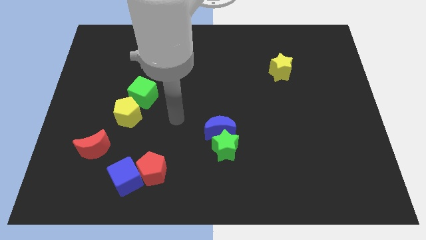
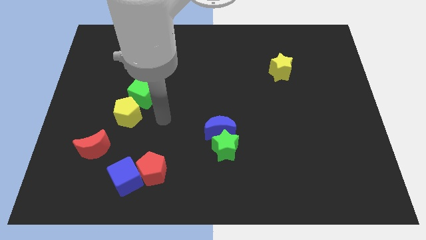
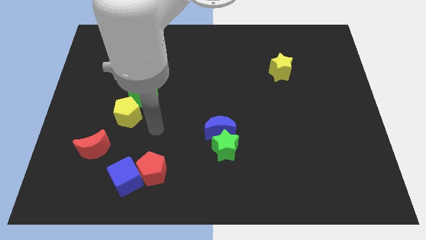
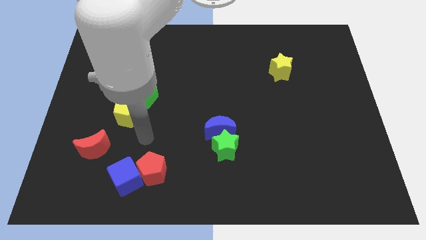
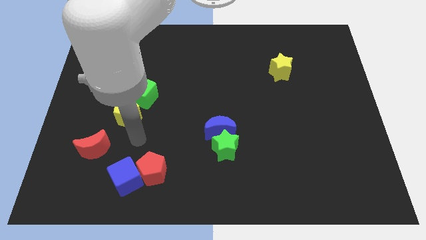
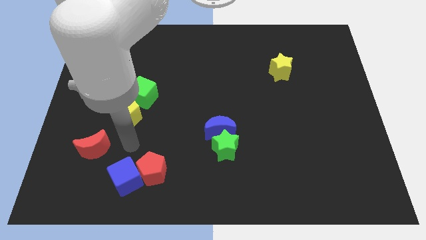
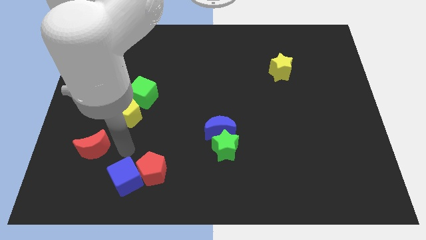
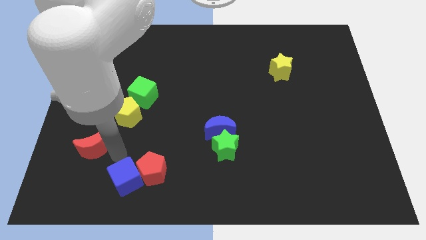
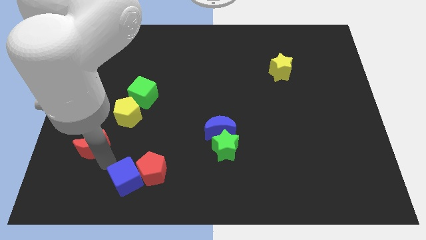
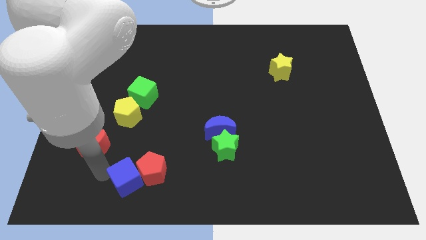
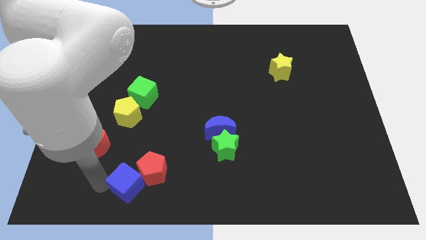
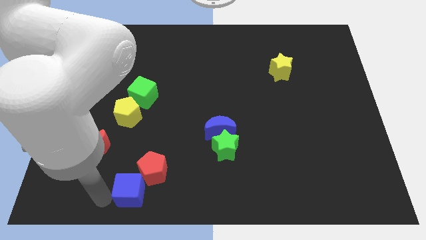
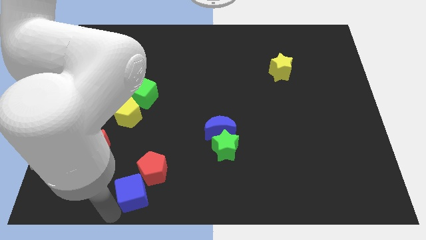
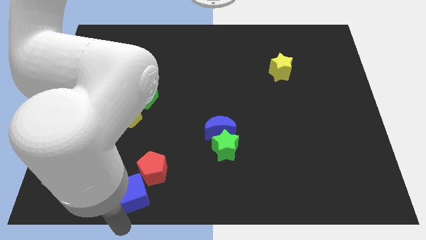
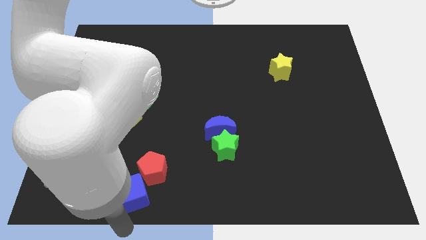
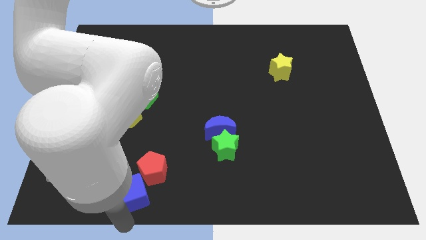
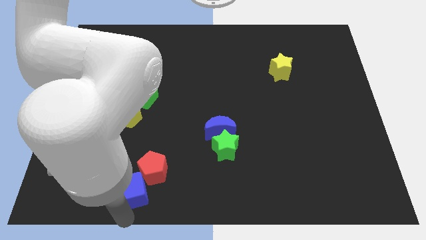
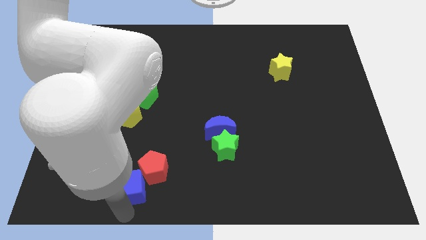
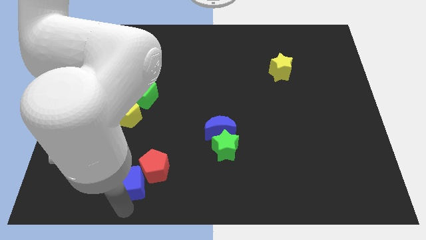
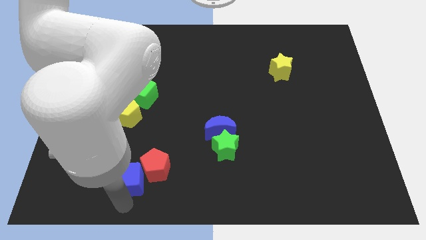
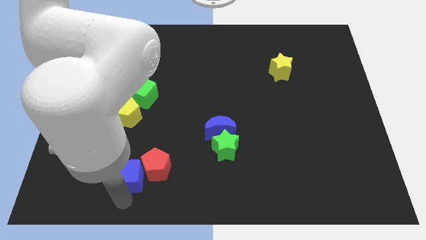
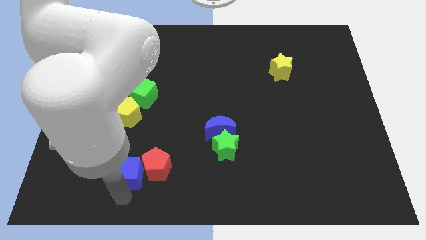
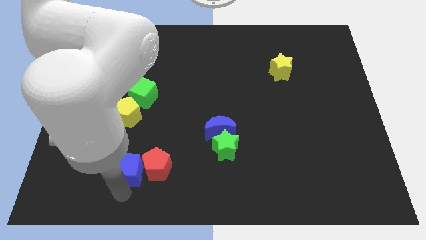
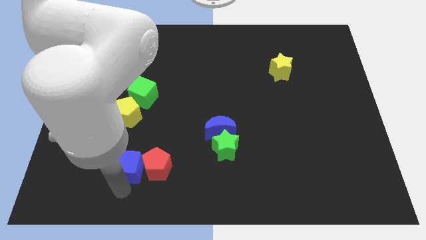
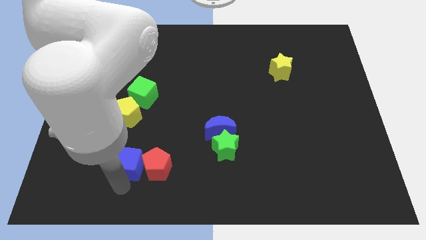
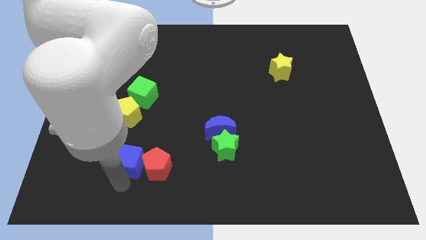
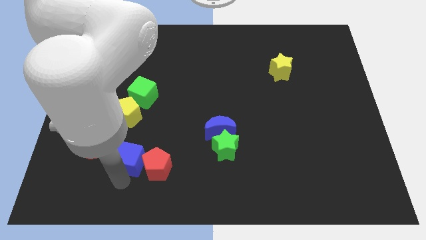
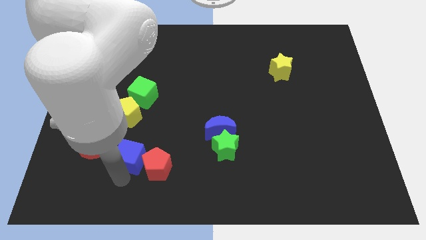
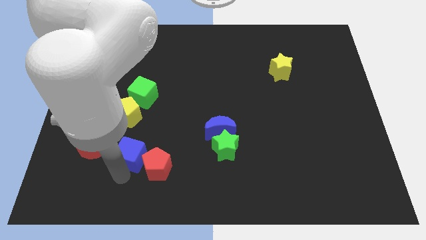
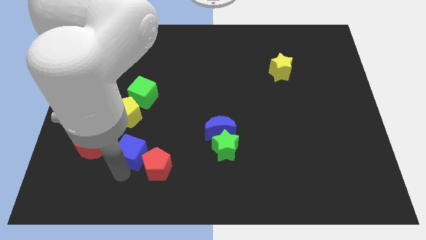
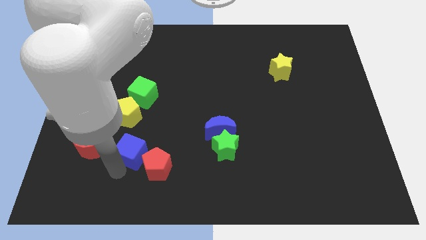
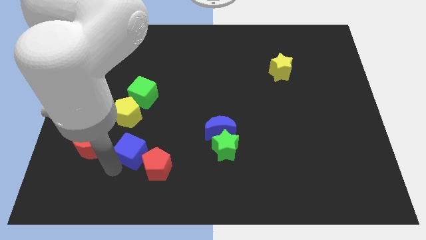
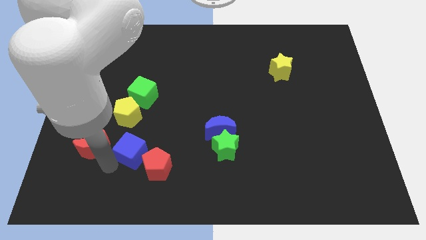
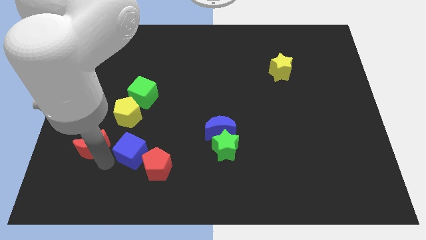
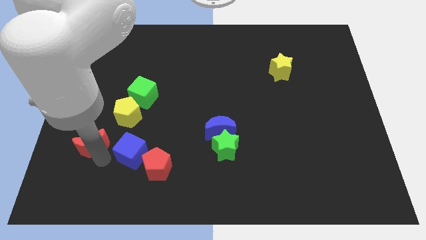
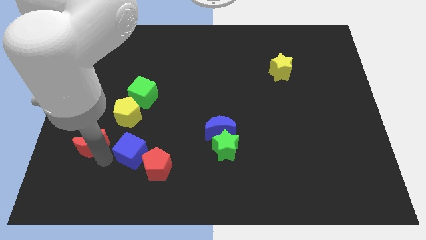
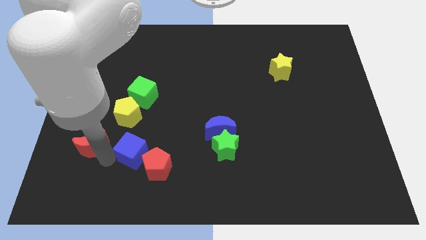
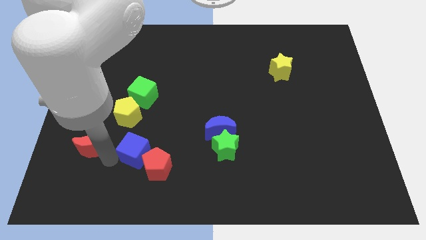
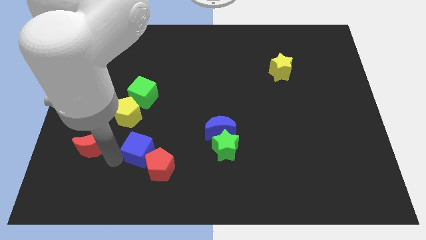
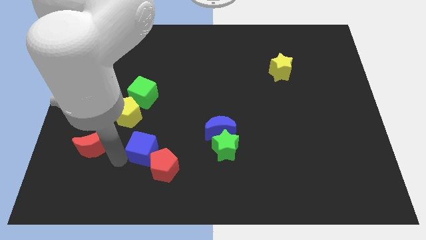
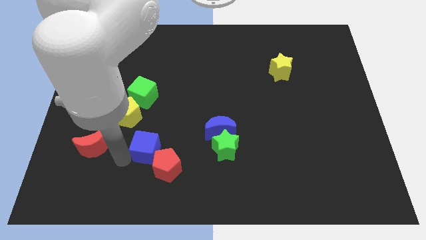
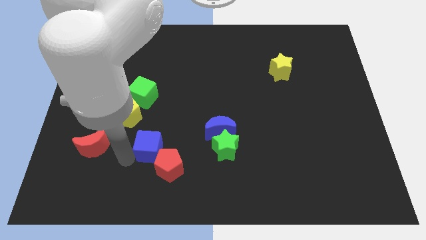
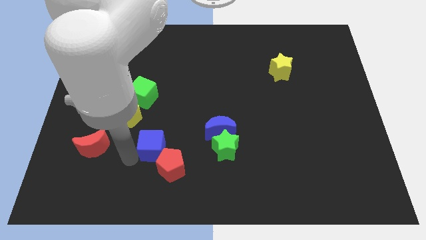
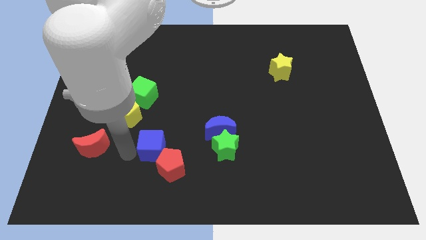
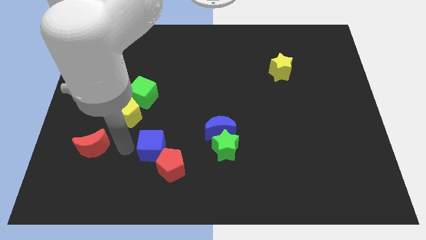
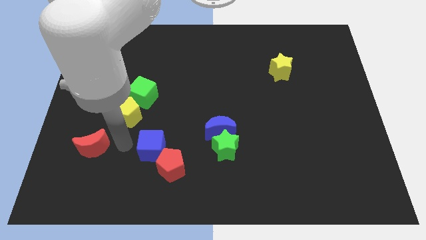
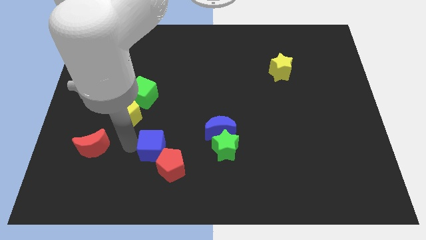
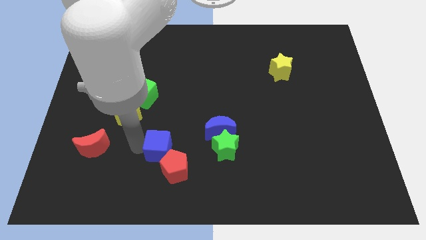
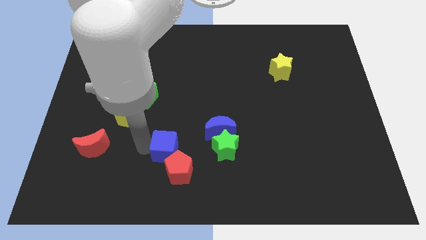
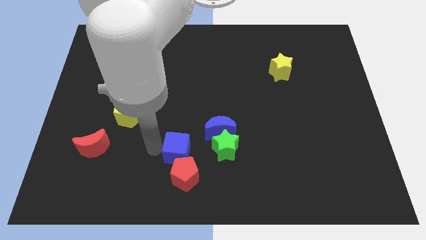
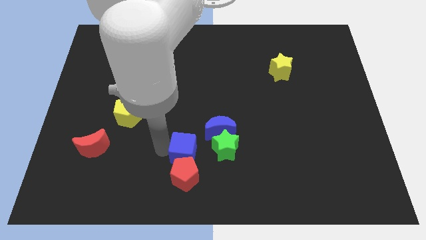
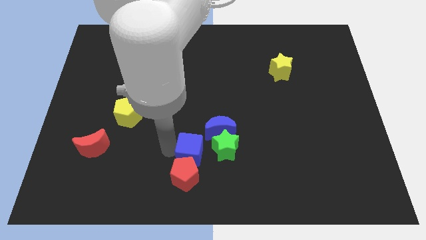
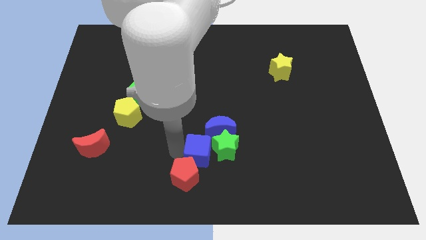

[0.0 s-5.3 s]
put the blue cube next to the green star

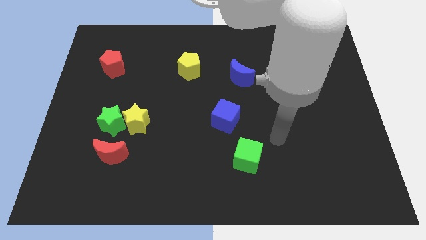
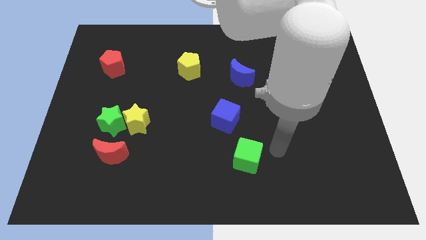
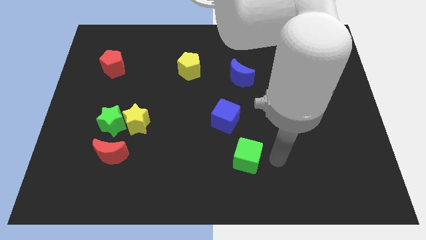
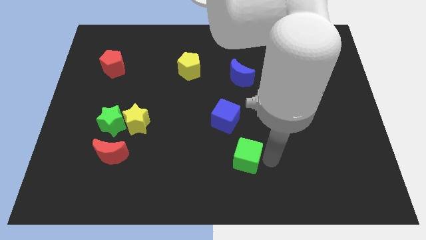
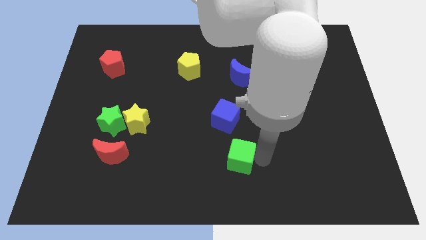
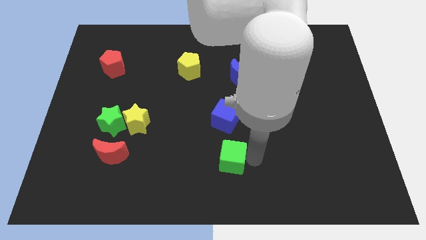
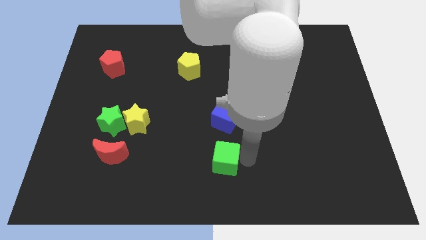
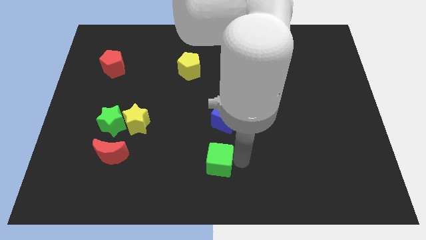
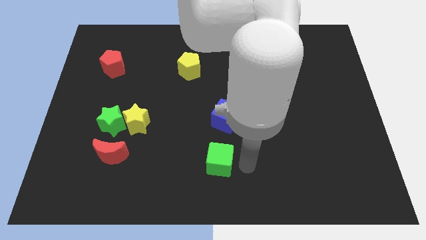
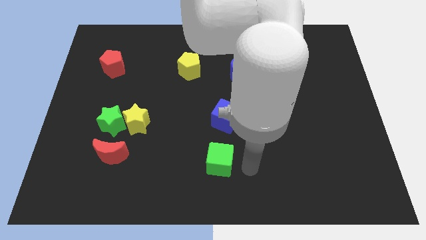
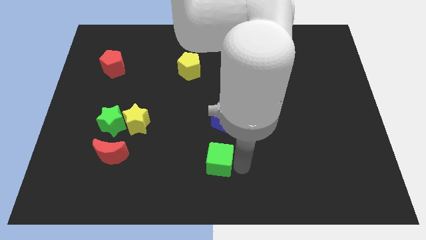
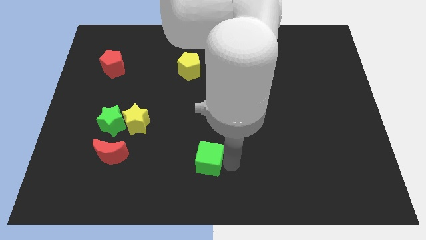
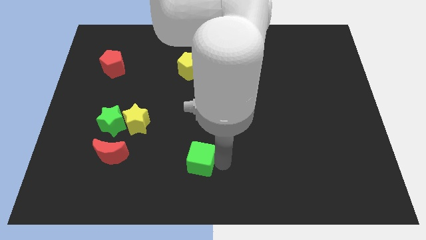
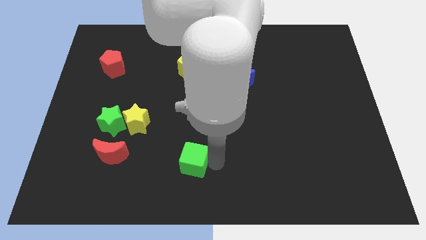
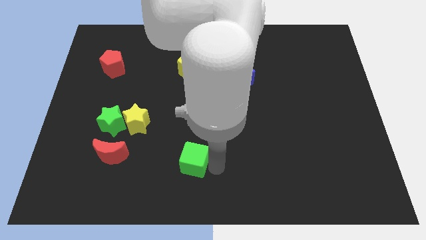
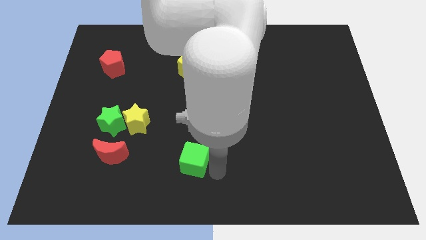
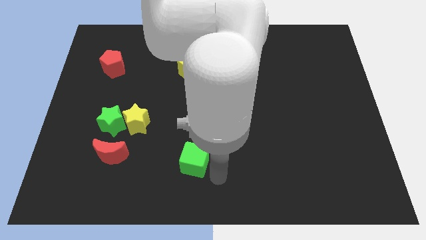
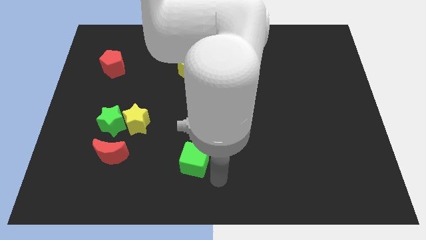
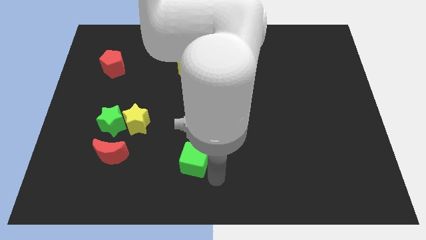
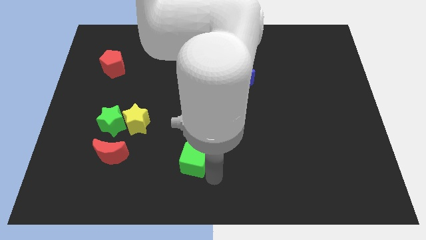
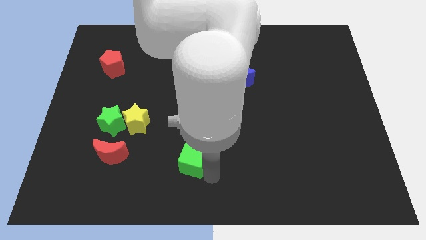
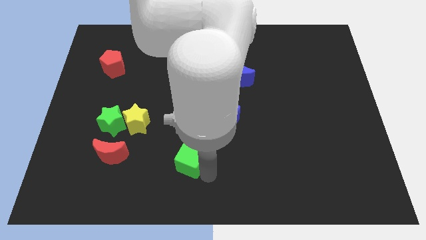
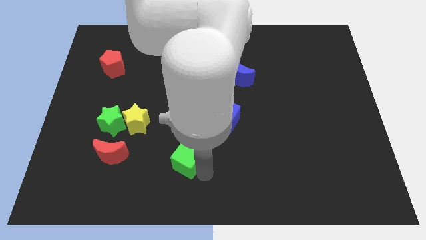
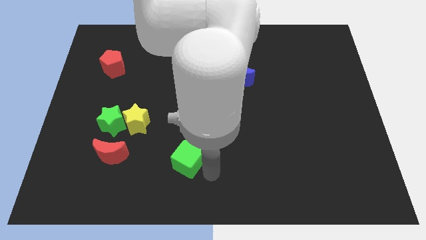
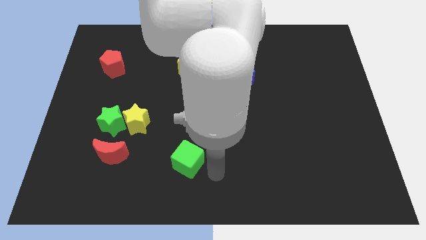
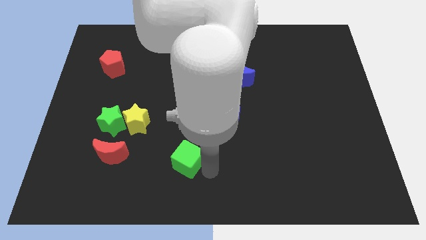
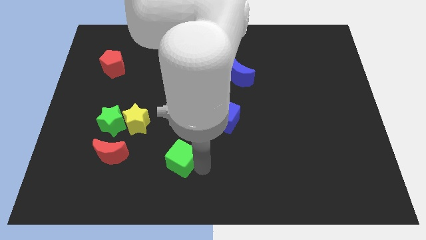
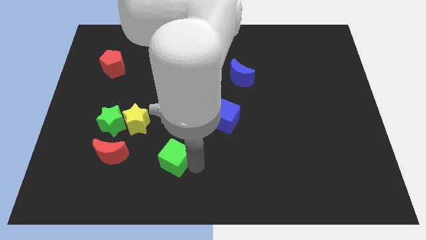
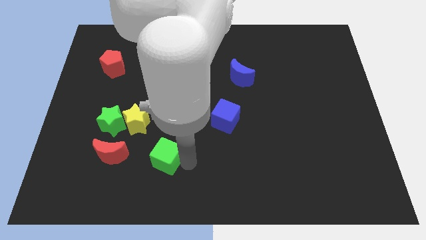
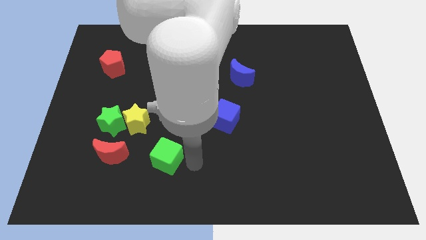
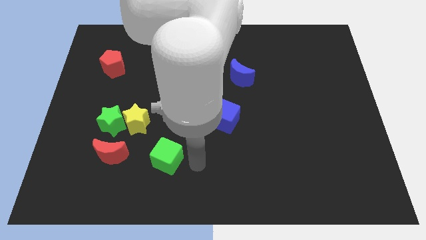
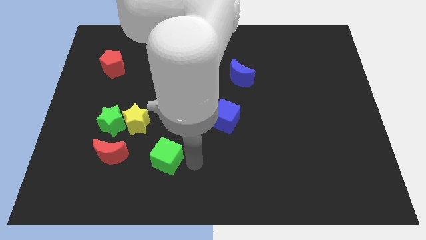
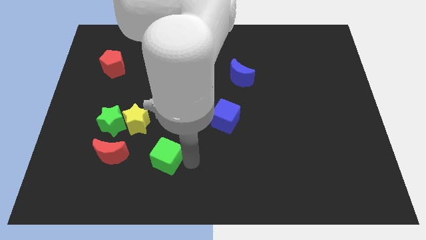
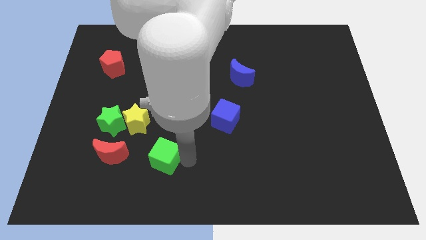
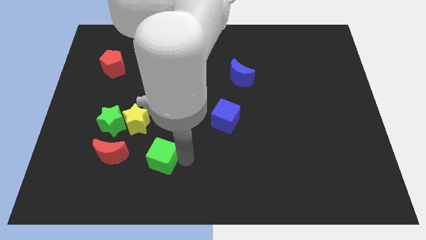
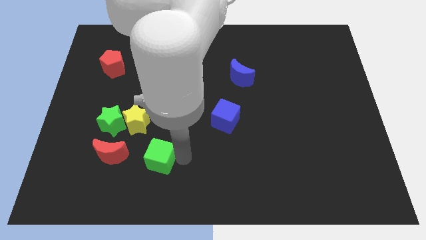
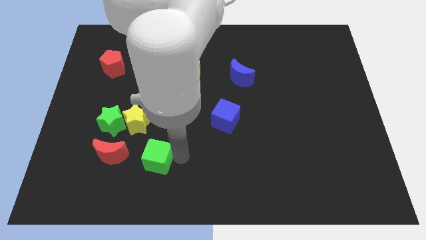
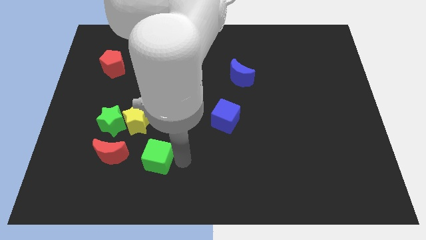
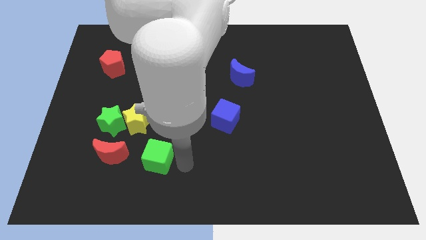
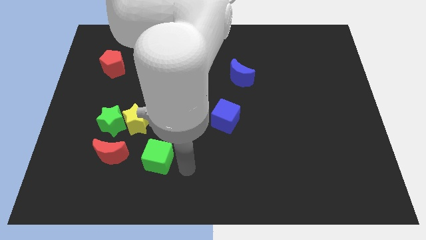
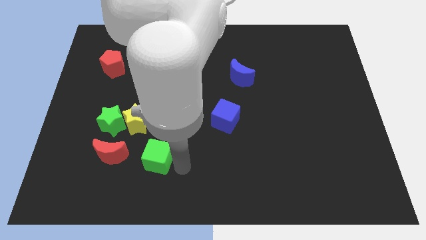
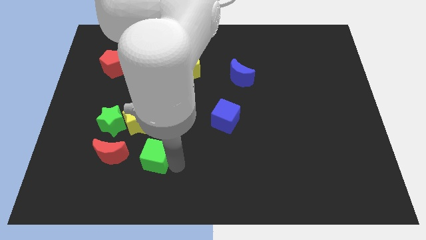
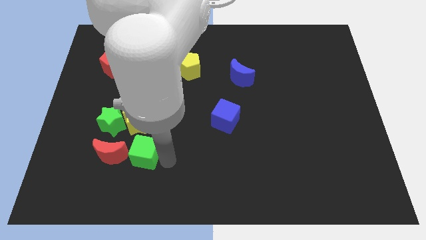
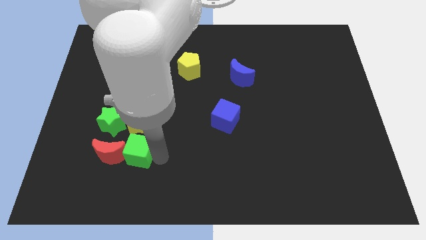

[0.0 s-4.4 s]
push the green cube close to the red moon
